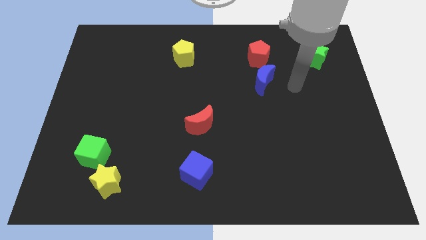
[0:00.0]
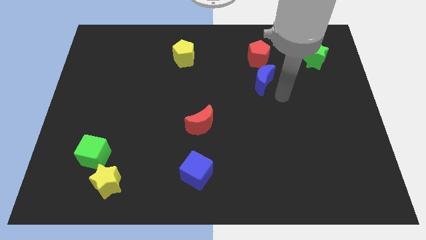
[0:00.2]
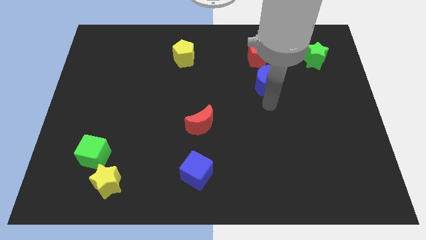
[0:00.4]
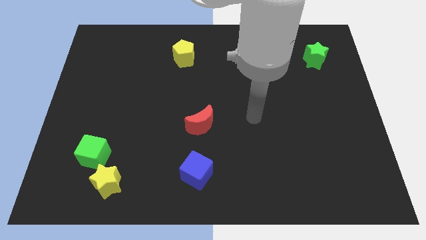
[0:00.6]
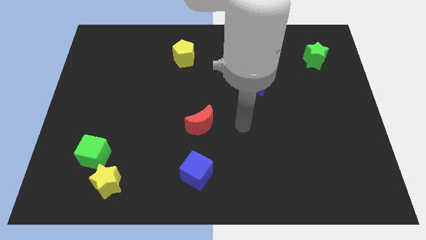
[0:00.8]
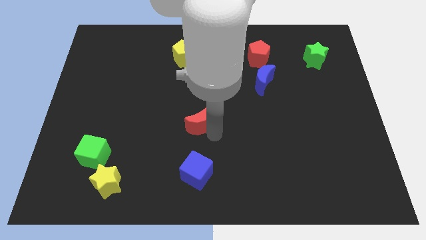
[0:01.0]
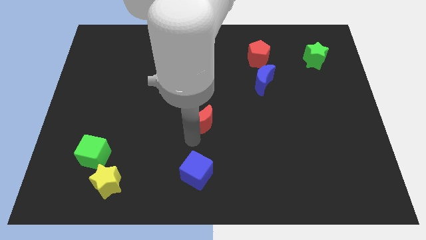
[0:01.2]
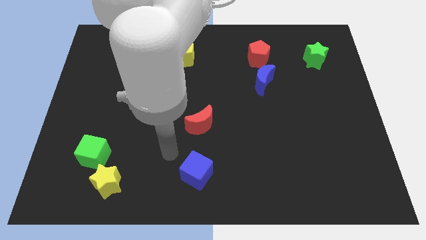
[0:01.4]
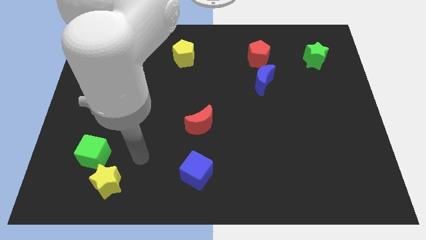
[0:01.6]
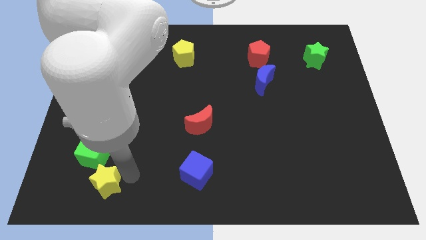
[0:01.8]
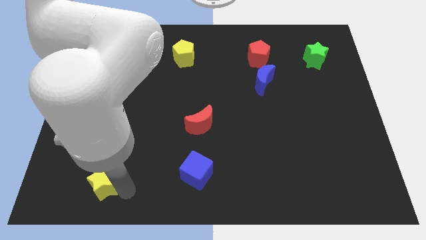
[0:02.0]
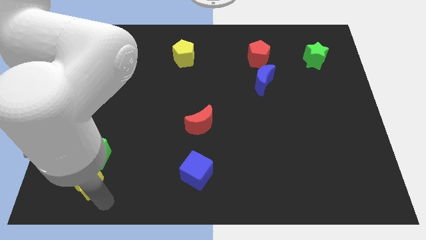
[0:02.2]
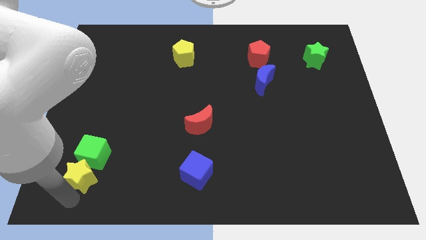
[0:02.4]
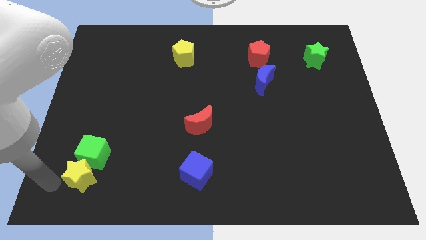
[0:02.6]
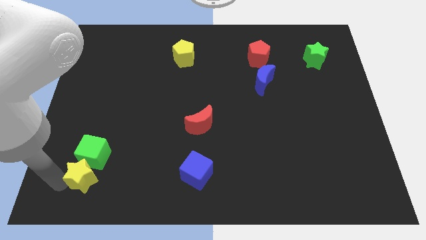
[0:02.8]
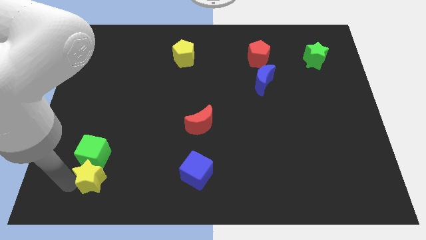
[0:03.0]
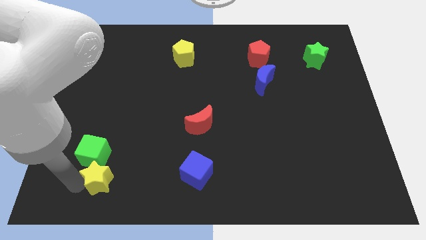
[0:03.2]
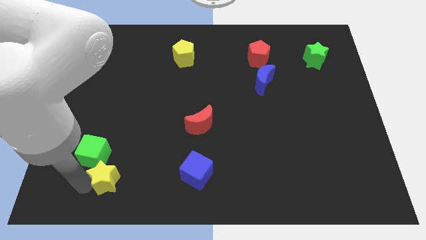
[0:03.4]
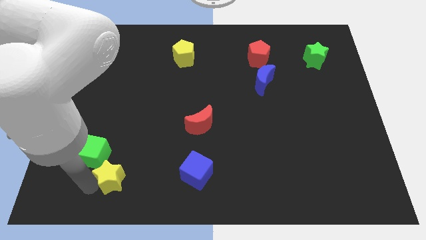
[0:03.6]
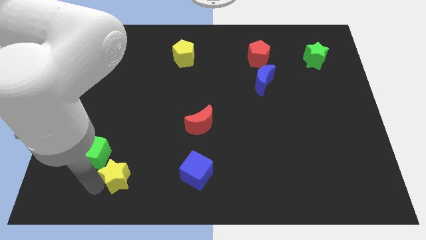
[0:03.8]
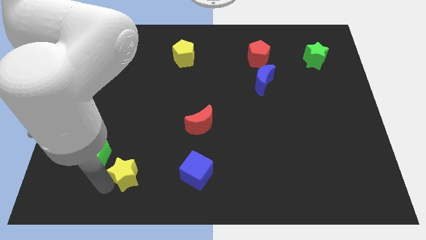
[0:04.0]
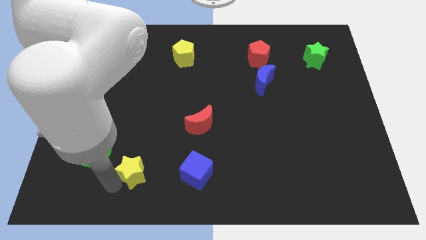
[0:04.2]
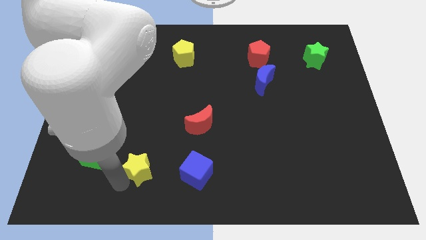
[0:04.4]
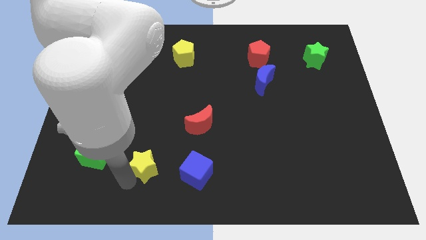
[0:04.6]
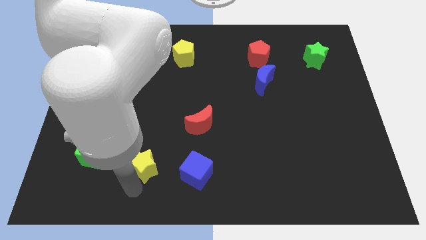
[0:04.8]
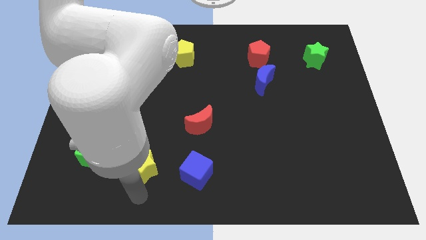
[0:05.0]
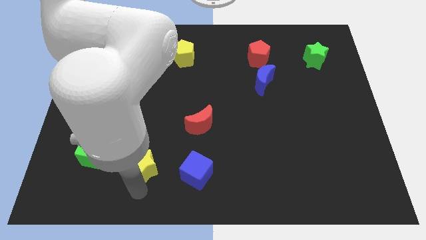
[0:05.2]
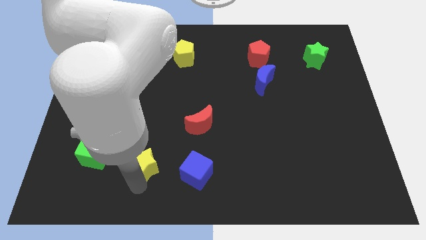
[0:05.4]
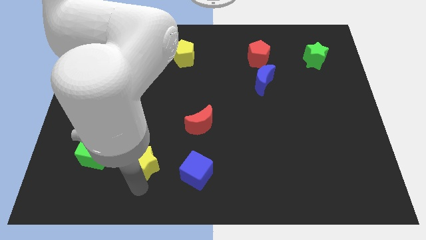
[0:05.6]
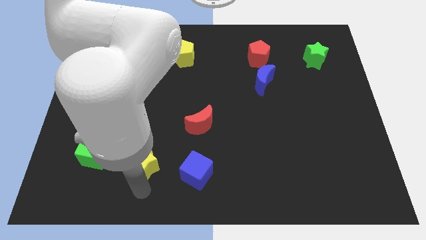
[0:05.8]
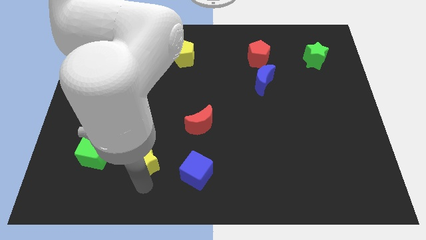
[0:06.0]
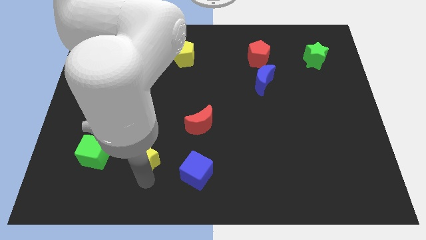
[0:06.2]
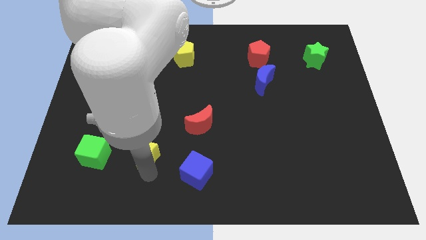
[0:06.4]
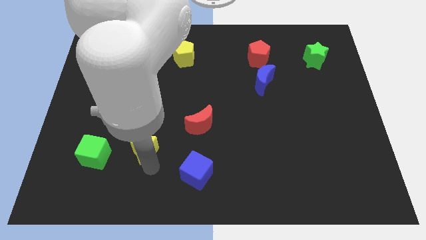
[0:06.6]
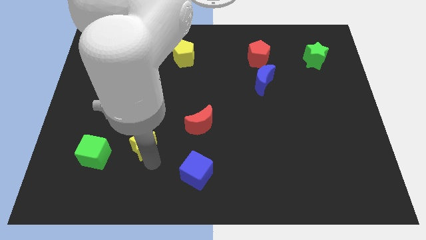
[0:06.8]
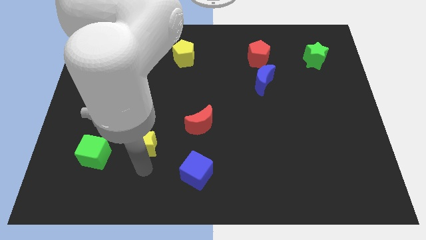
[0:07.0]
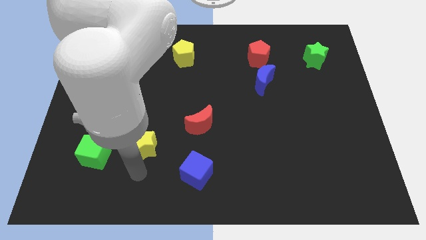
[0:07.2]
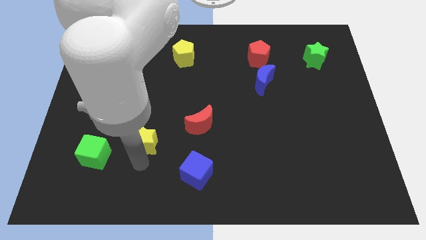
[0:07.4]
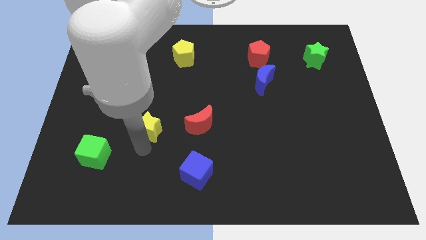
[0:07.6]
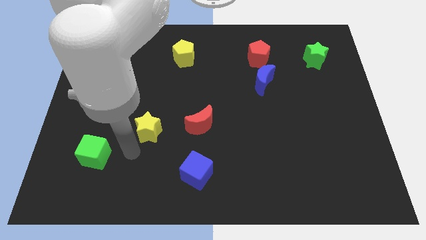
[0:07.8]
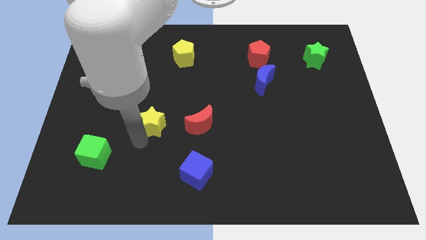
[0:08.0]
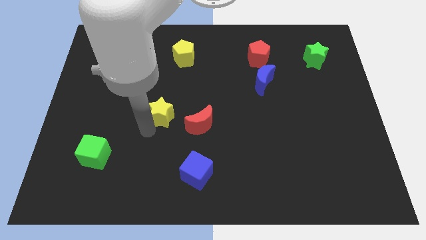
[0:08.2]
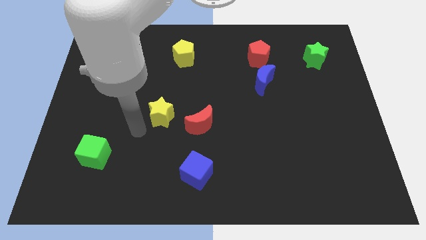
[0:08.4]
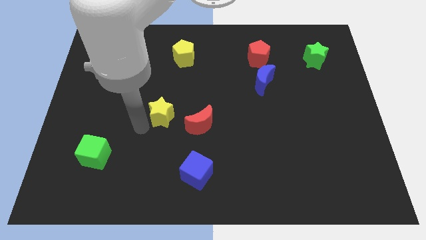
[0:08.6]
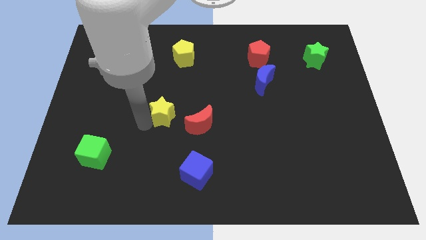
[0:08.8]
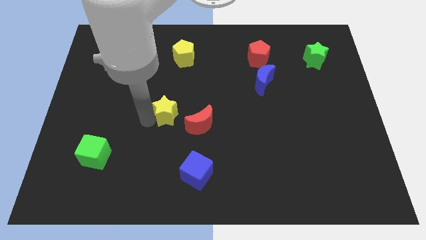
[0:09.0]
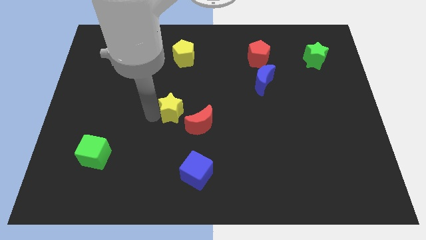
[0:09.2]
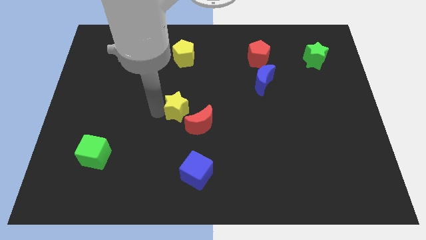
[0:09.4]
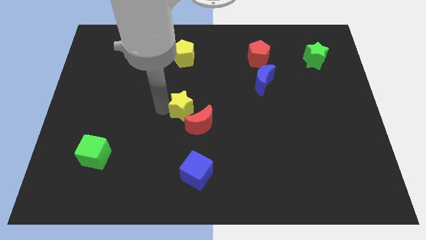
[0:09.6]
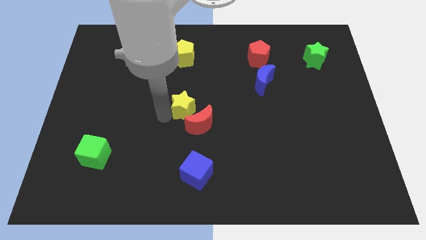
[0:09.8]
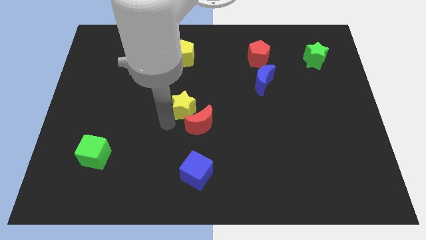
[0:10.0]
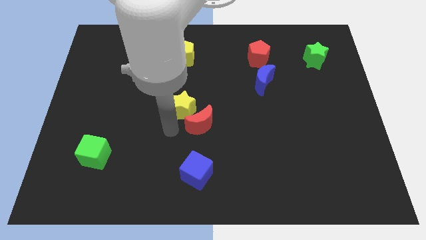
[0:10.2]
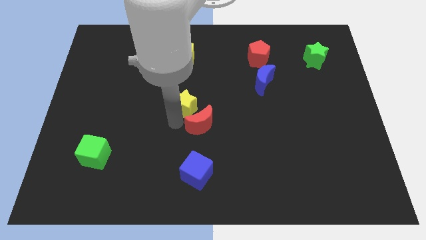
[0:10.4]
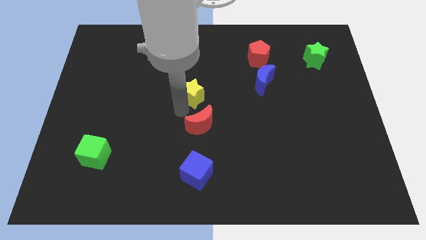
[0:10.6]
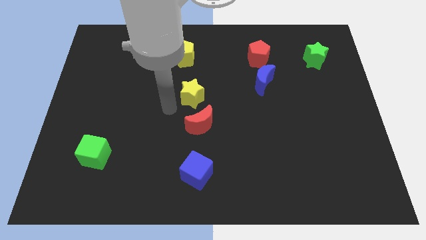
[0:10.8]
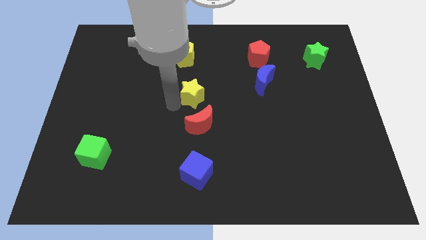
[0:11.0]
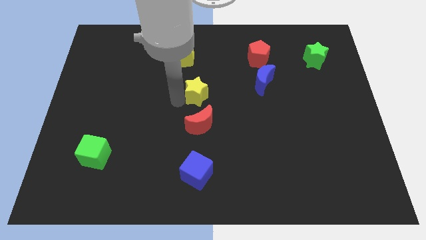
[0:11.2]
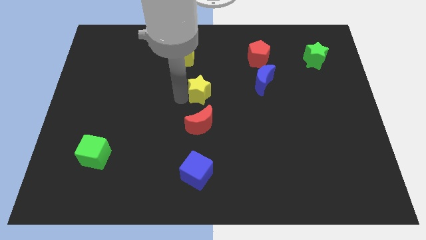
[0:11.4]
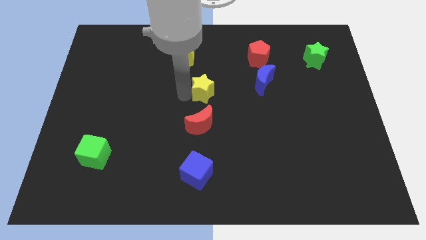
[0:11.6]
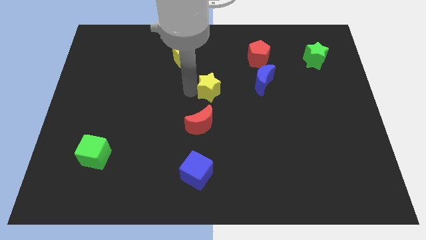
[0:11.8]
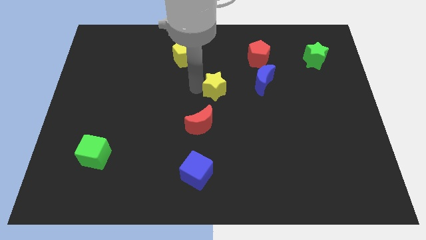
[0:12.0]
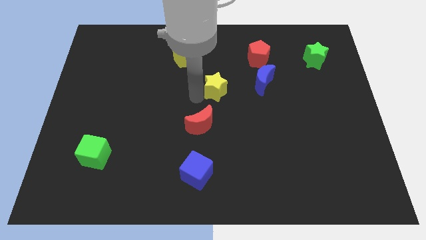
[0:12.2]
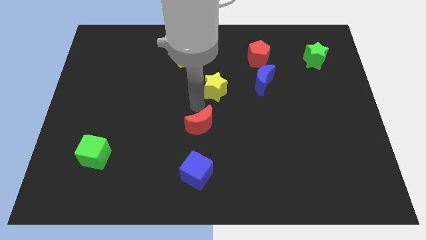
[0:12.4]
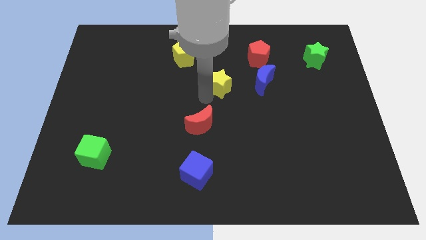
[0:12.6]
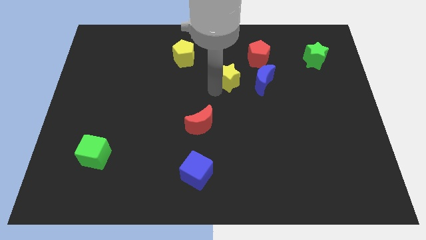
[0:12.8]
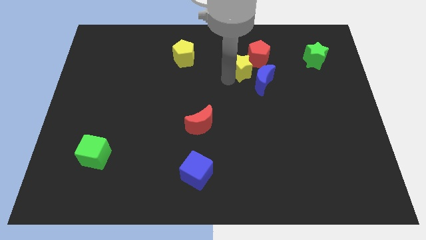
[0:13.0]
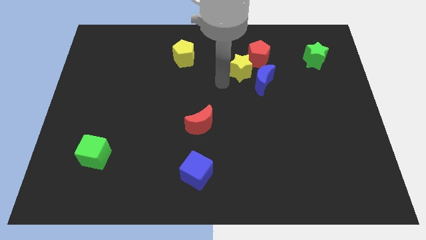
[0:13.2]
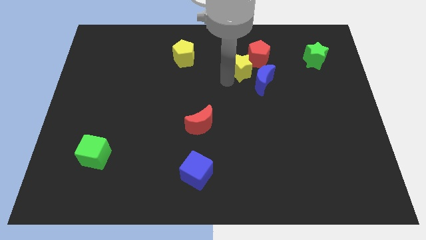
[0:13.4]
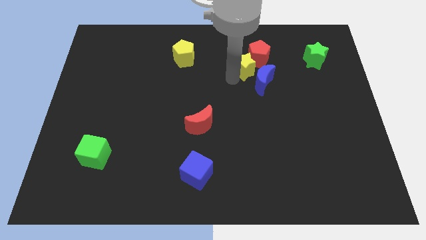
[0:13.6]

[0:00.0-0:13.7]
move the yellow star towards the red pentagon
